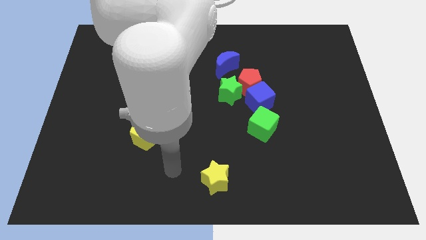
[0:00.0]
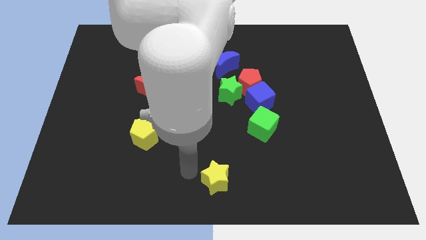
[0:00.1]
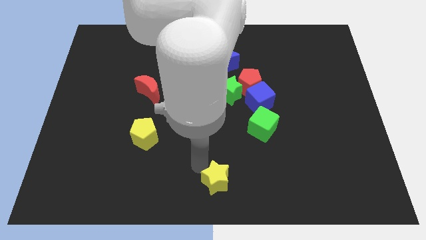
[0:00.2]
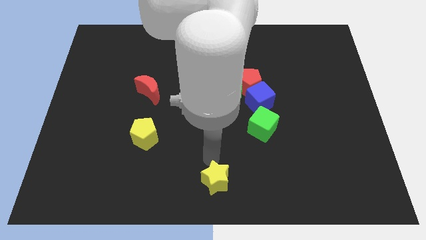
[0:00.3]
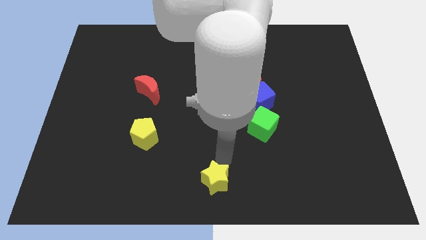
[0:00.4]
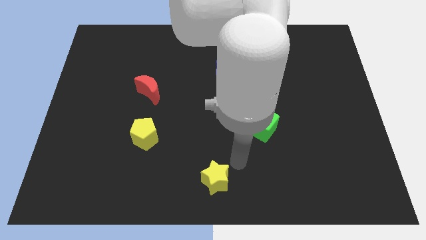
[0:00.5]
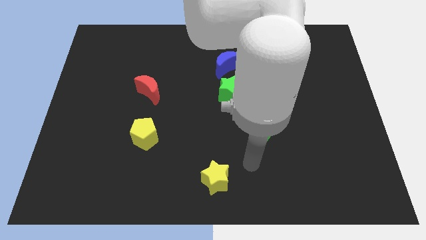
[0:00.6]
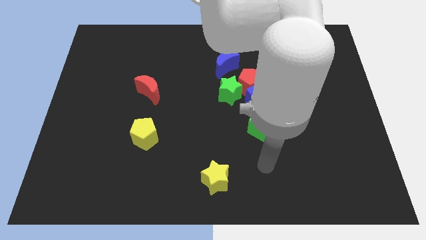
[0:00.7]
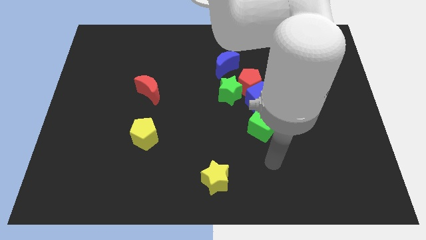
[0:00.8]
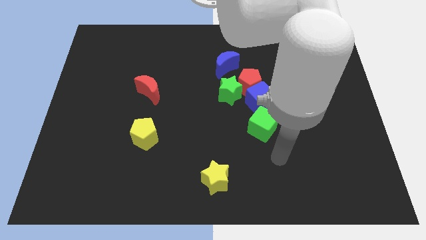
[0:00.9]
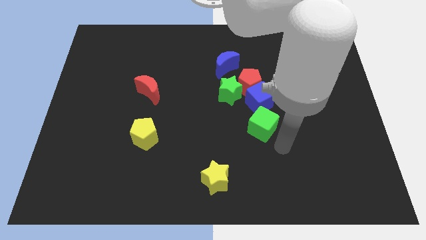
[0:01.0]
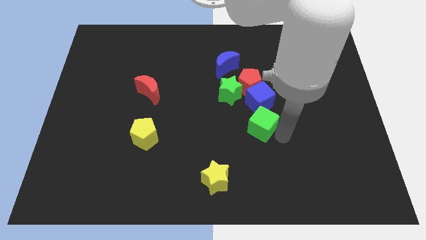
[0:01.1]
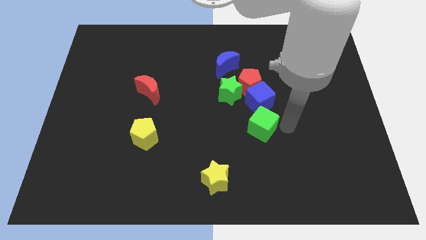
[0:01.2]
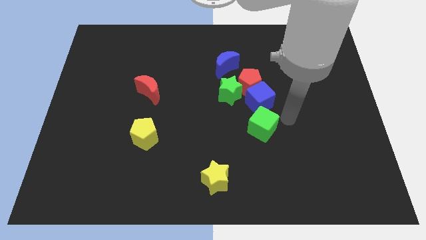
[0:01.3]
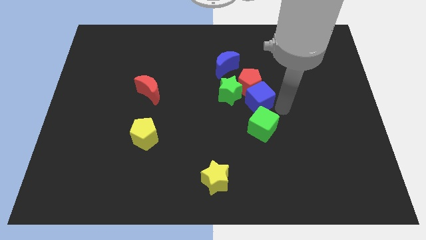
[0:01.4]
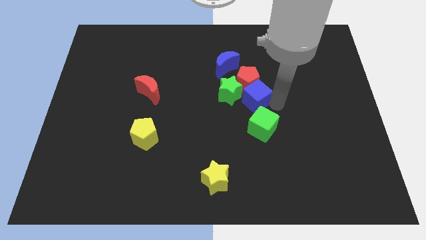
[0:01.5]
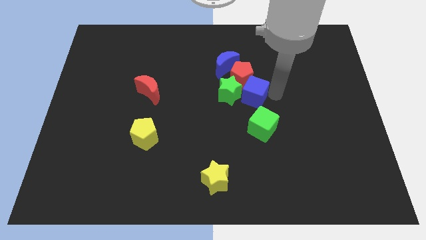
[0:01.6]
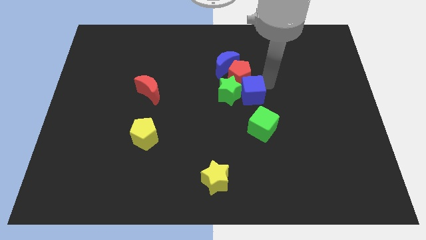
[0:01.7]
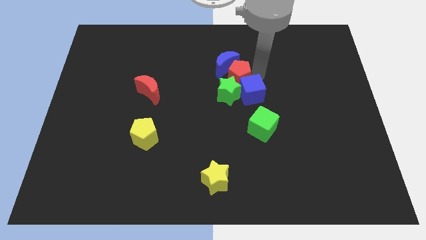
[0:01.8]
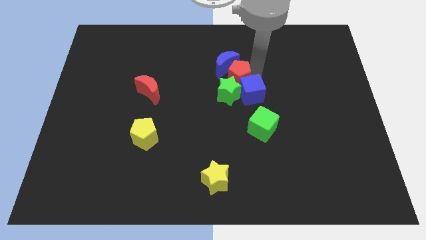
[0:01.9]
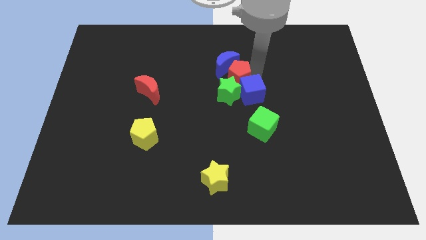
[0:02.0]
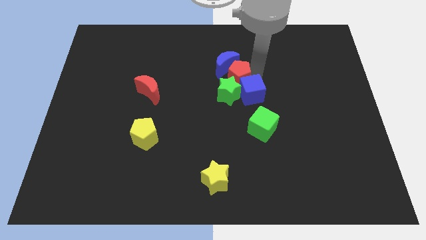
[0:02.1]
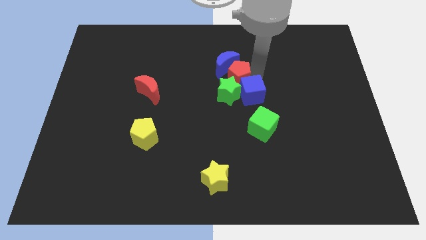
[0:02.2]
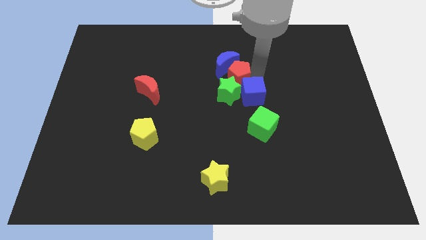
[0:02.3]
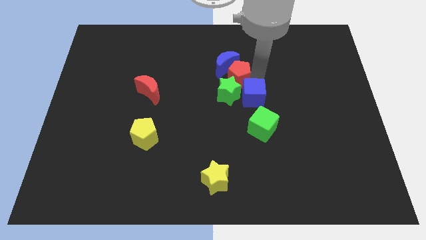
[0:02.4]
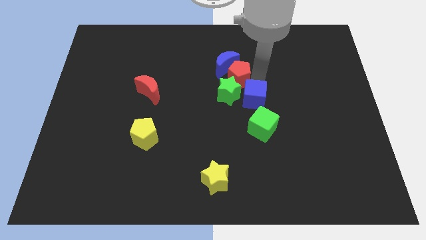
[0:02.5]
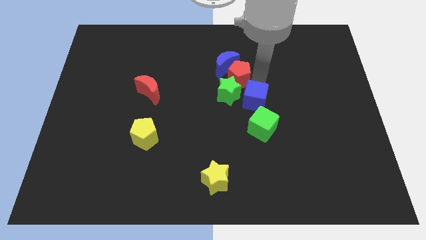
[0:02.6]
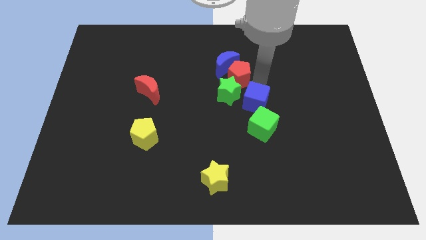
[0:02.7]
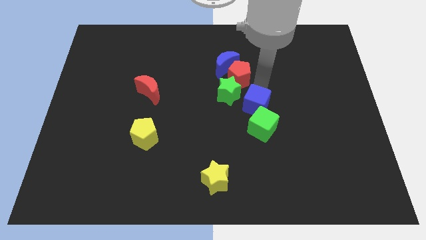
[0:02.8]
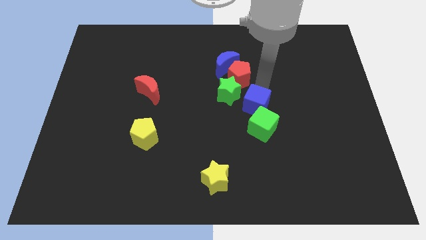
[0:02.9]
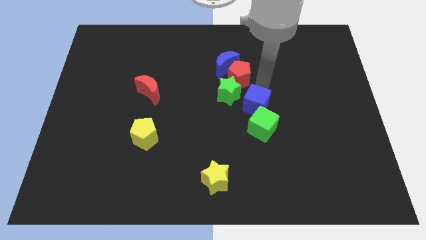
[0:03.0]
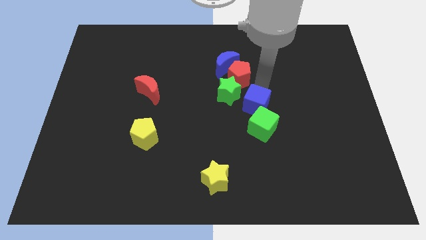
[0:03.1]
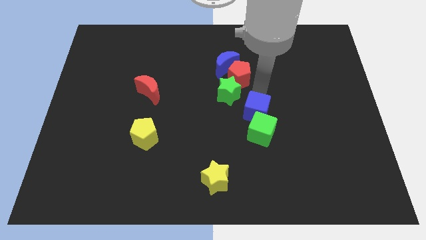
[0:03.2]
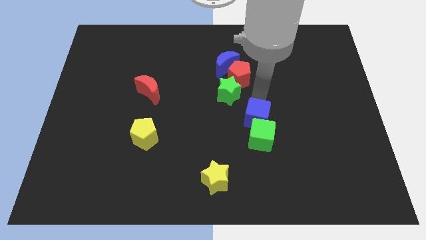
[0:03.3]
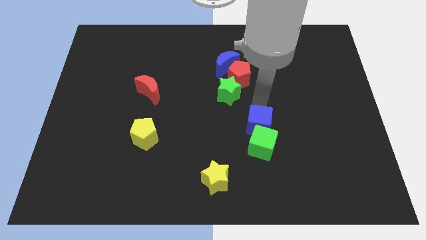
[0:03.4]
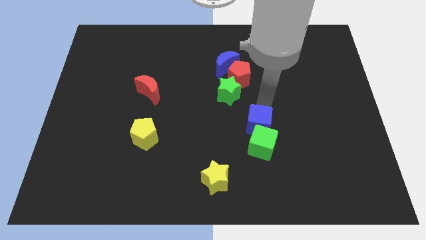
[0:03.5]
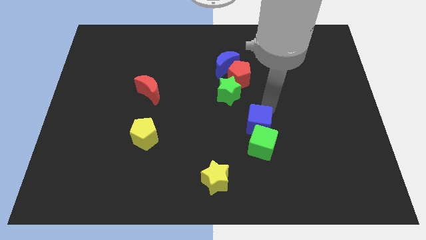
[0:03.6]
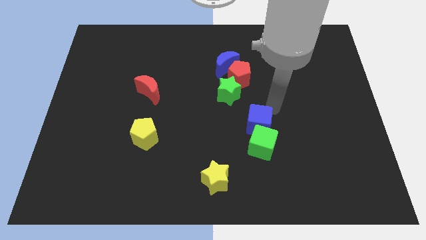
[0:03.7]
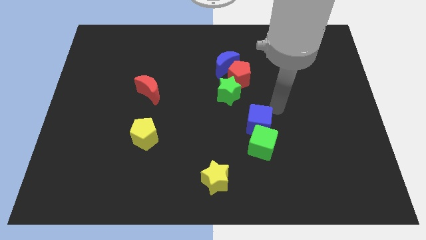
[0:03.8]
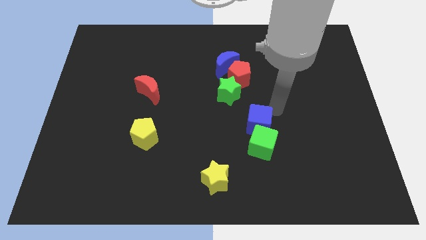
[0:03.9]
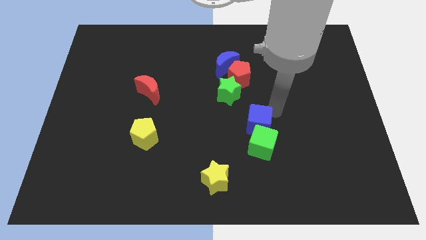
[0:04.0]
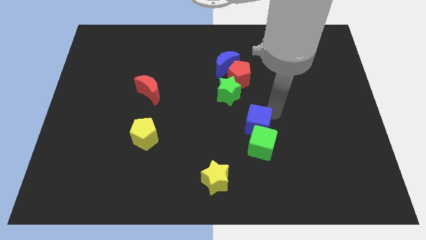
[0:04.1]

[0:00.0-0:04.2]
slightly slide the blue cube downwards

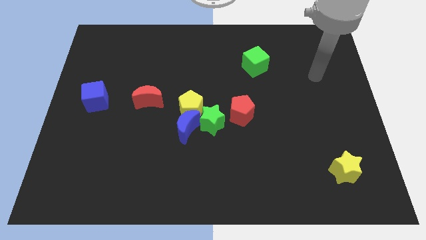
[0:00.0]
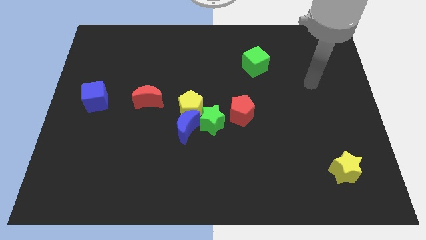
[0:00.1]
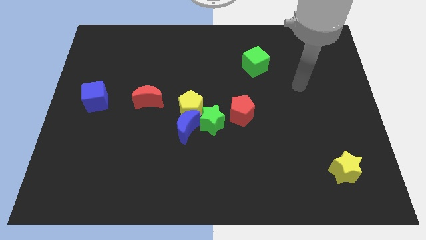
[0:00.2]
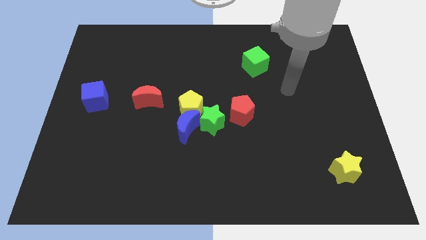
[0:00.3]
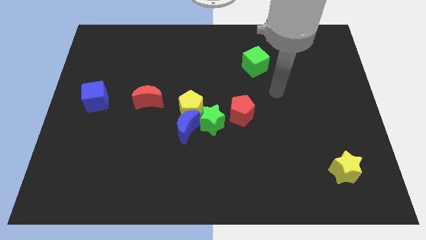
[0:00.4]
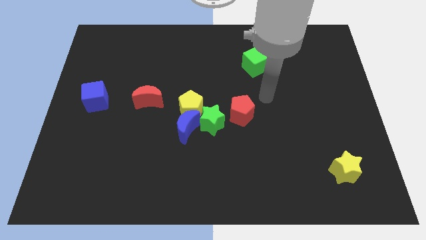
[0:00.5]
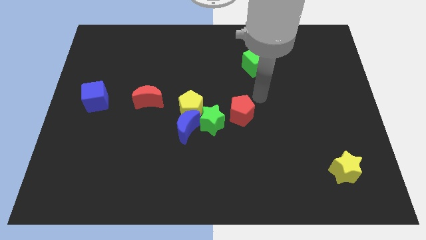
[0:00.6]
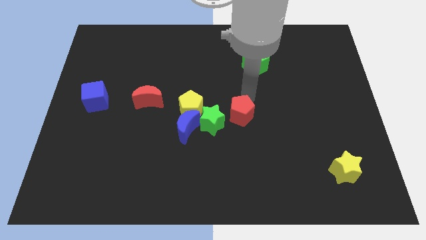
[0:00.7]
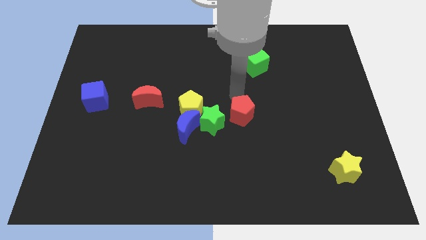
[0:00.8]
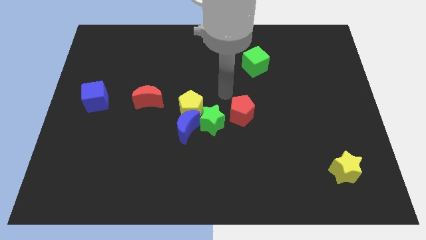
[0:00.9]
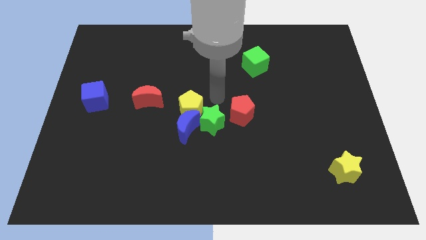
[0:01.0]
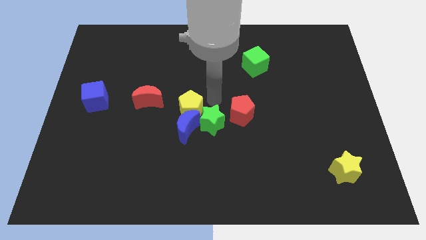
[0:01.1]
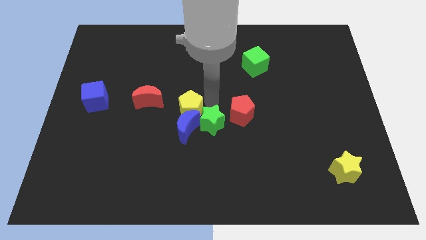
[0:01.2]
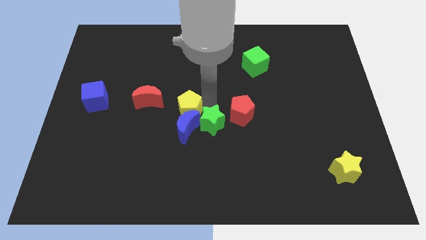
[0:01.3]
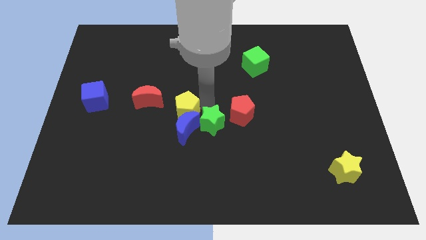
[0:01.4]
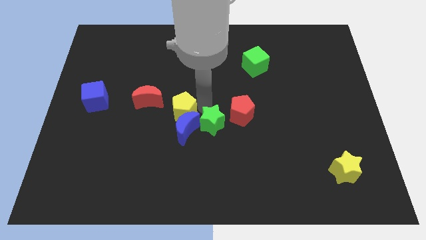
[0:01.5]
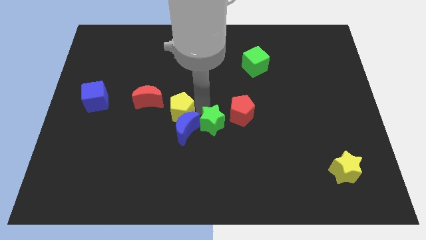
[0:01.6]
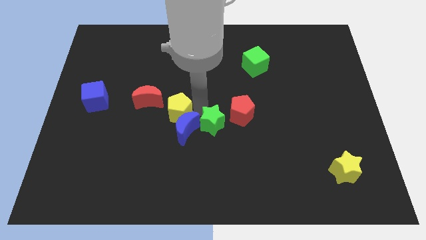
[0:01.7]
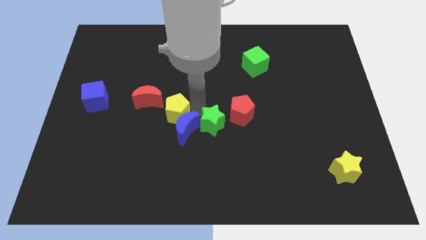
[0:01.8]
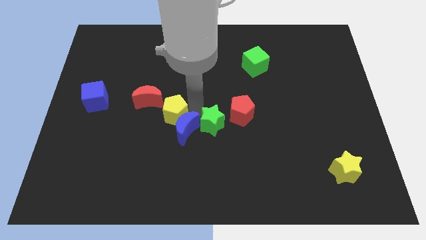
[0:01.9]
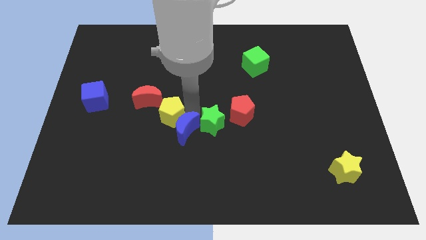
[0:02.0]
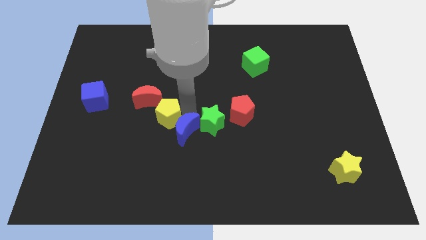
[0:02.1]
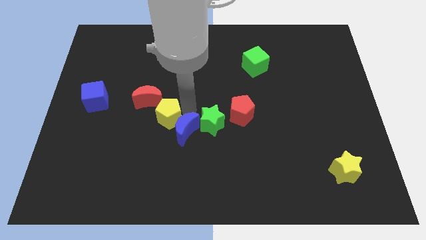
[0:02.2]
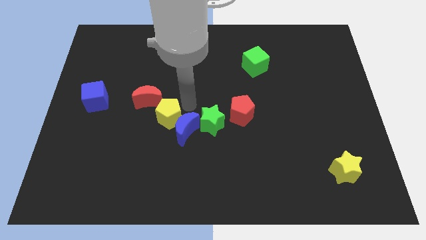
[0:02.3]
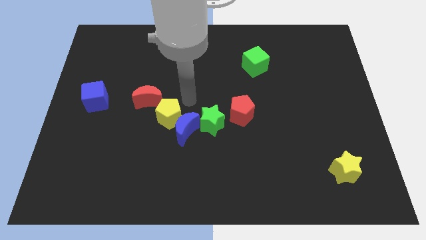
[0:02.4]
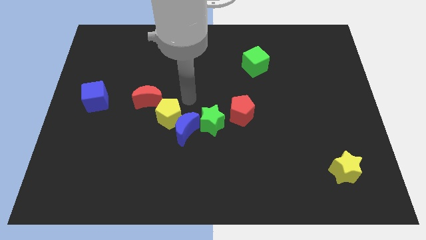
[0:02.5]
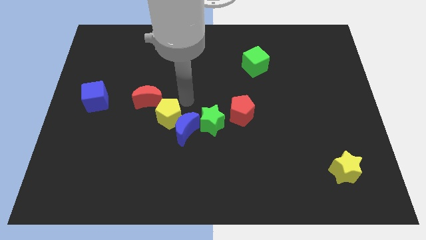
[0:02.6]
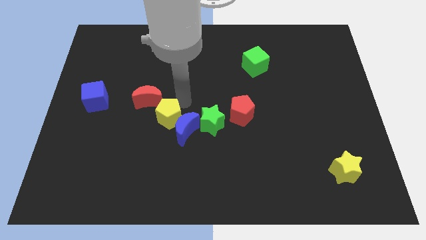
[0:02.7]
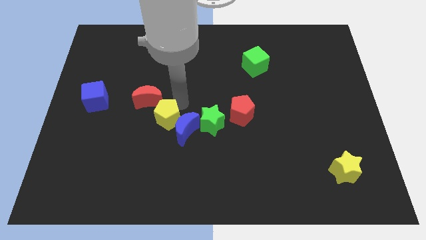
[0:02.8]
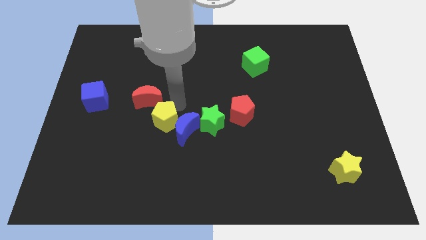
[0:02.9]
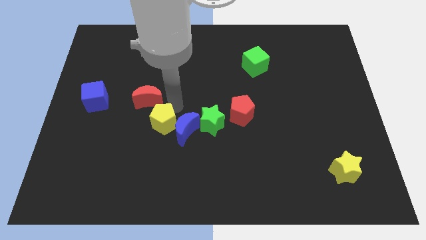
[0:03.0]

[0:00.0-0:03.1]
push the yellow pentagon a little bit down and then left

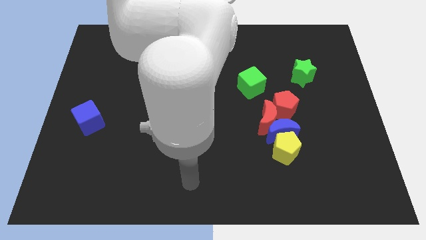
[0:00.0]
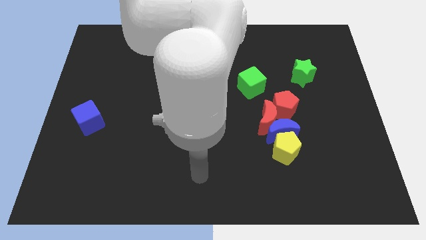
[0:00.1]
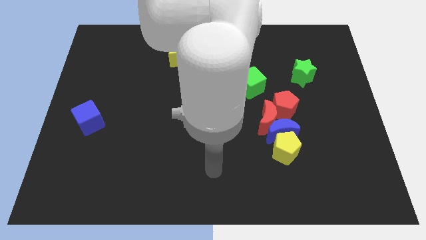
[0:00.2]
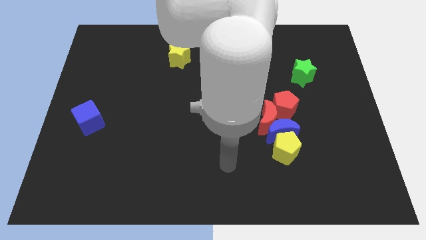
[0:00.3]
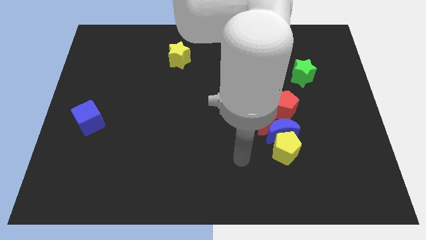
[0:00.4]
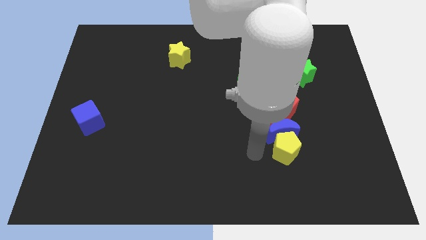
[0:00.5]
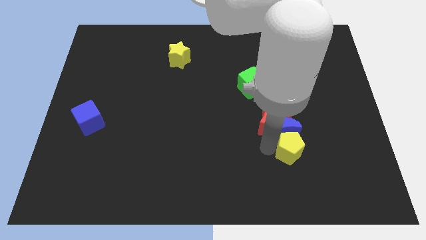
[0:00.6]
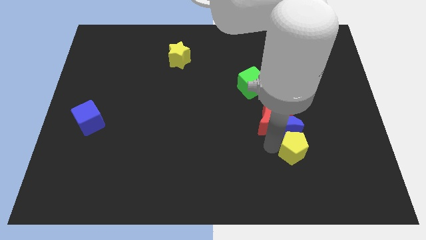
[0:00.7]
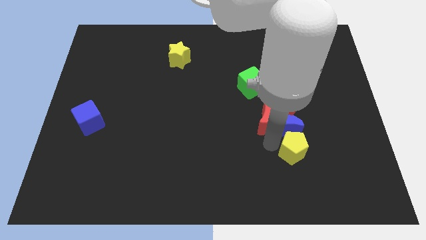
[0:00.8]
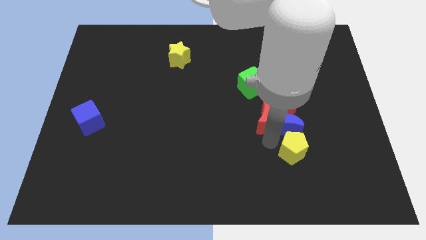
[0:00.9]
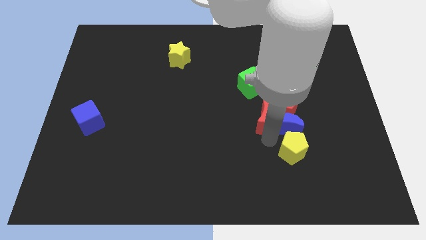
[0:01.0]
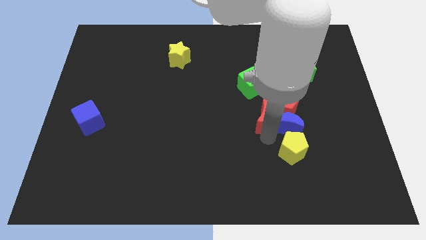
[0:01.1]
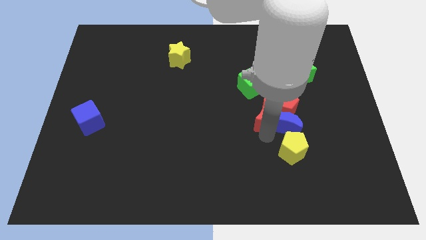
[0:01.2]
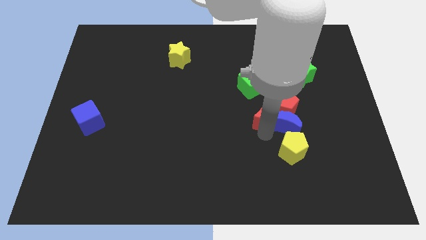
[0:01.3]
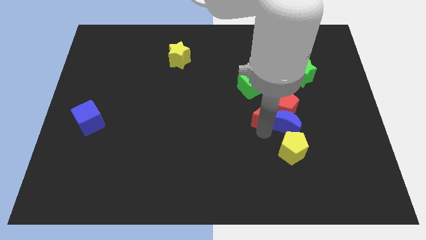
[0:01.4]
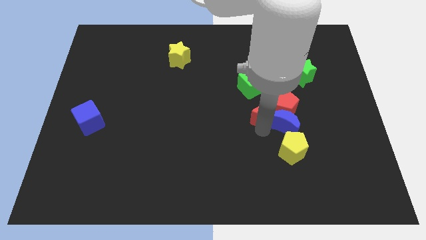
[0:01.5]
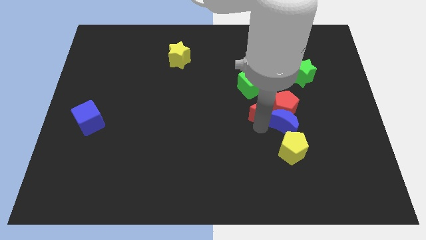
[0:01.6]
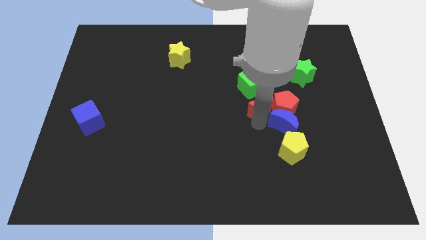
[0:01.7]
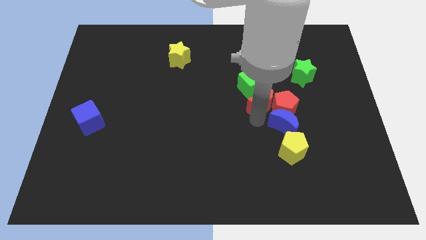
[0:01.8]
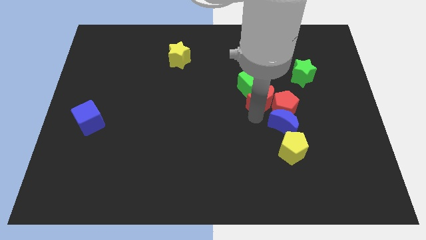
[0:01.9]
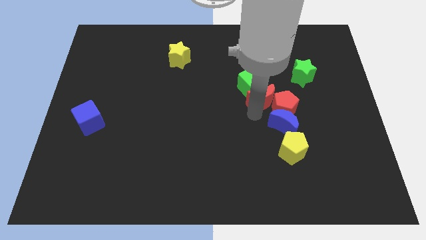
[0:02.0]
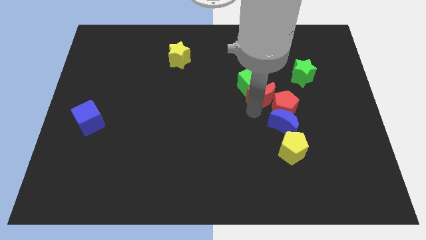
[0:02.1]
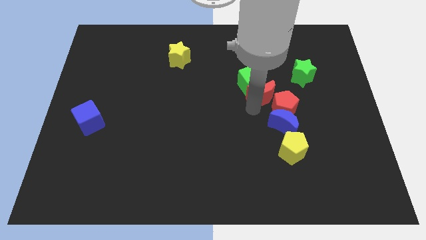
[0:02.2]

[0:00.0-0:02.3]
slide the red moon a little upwards
